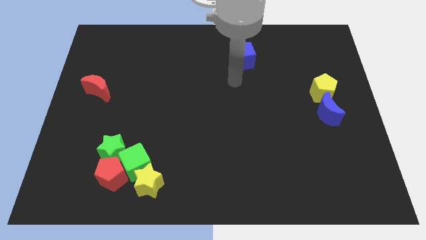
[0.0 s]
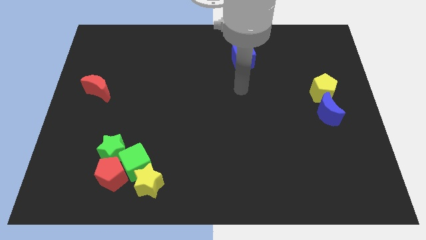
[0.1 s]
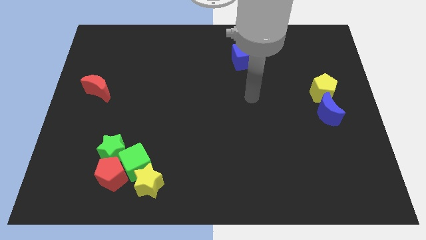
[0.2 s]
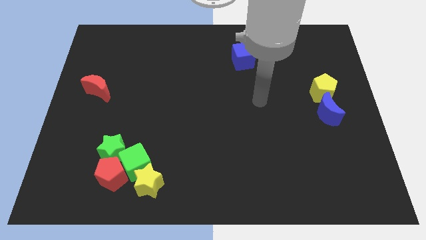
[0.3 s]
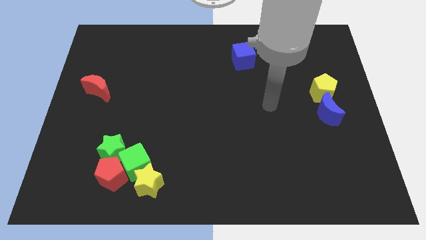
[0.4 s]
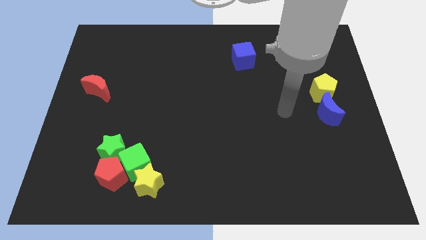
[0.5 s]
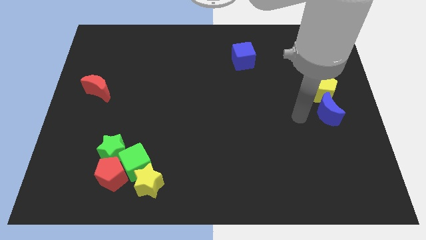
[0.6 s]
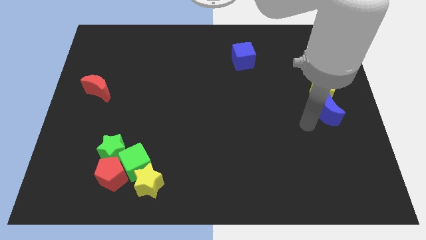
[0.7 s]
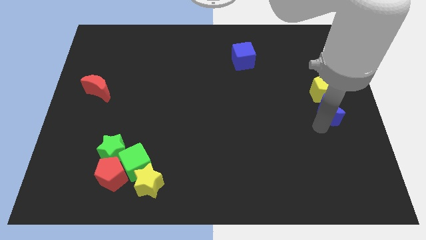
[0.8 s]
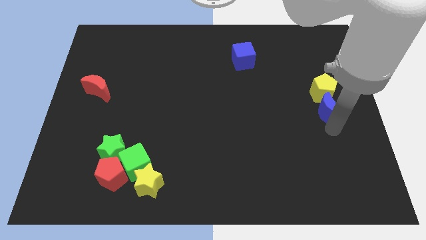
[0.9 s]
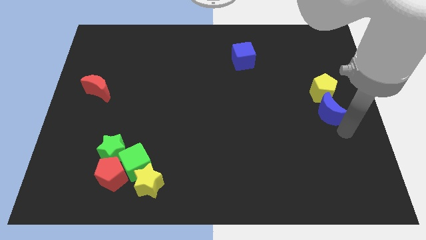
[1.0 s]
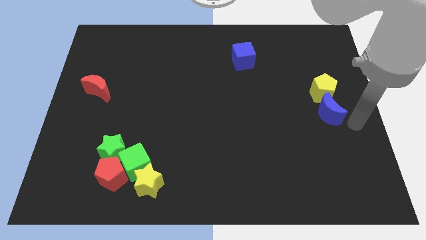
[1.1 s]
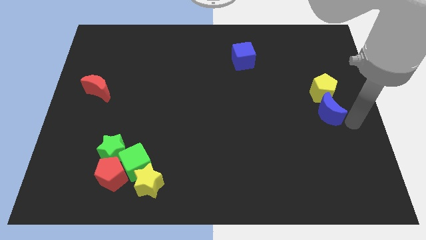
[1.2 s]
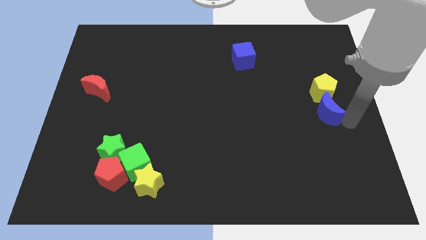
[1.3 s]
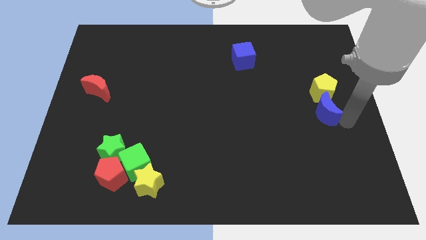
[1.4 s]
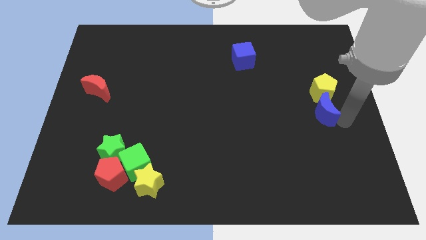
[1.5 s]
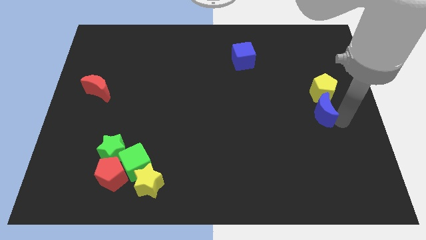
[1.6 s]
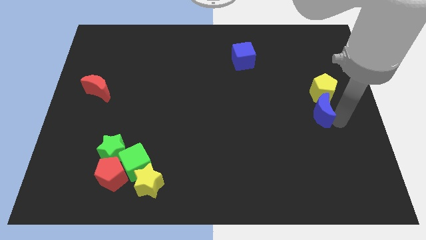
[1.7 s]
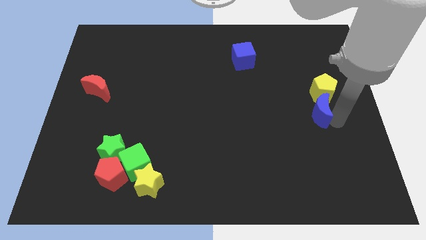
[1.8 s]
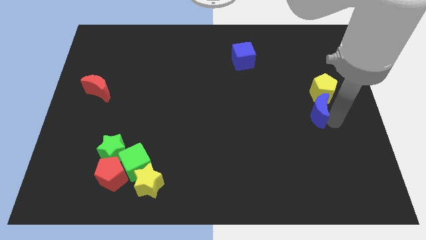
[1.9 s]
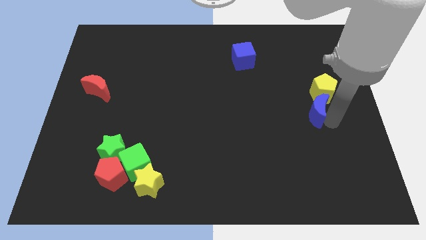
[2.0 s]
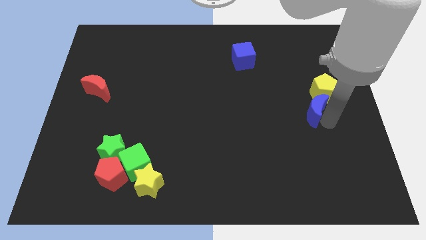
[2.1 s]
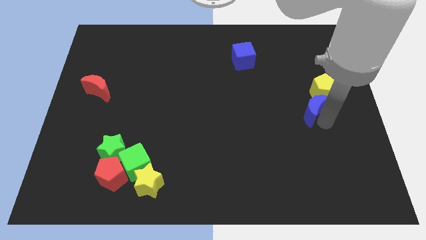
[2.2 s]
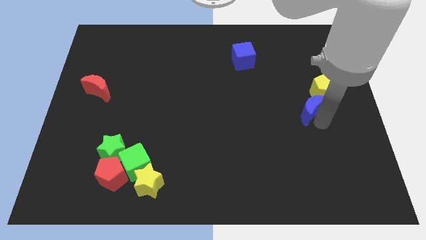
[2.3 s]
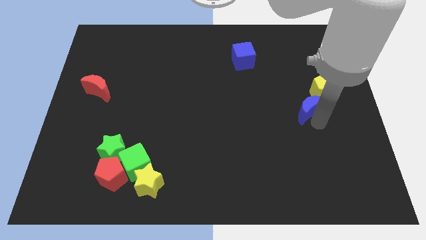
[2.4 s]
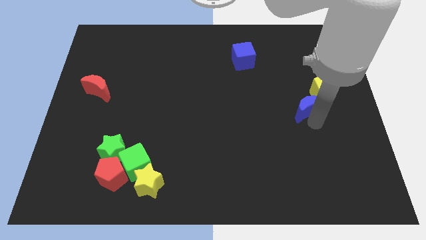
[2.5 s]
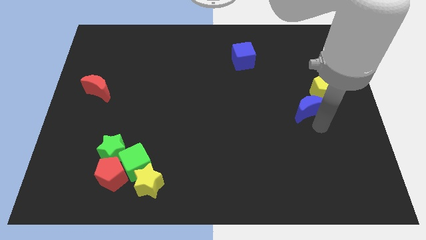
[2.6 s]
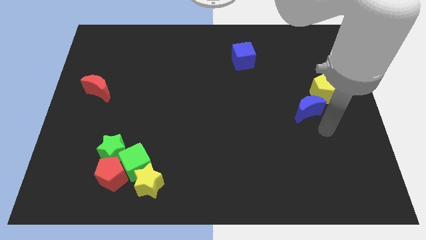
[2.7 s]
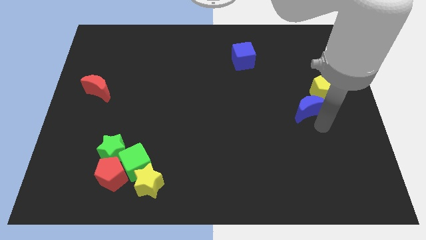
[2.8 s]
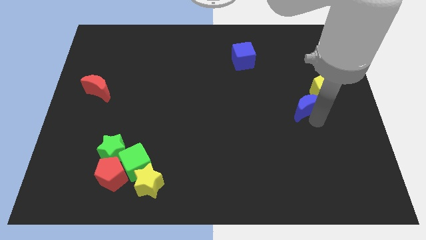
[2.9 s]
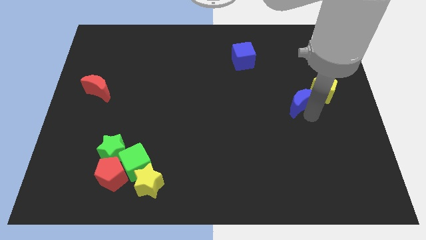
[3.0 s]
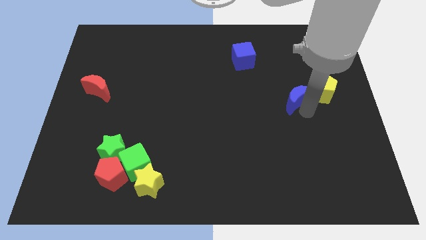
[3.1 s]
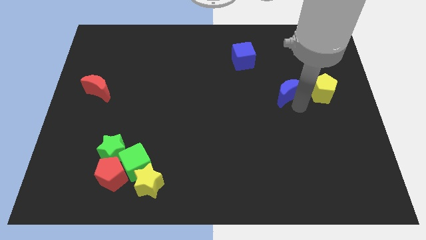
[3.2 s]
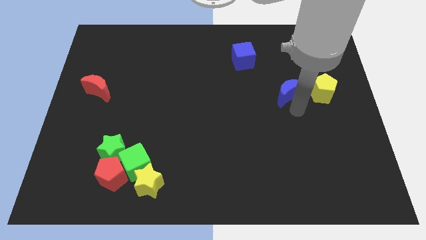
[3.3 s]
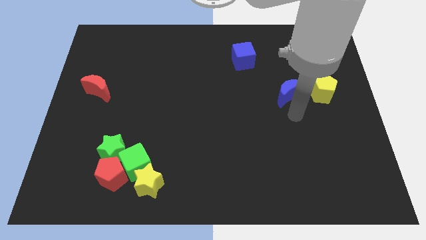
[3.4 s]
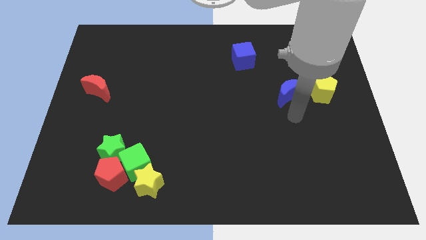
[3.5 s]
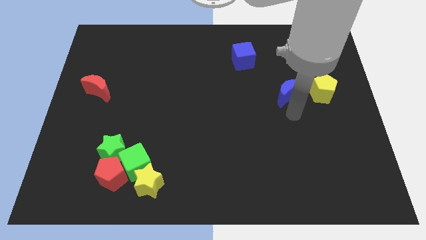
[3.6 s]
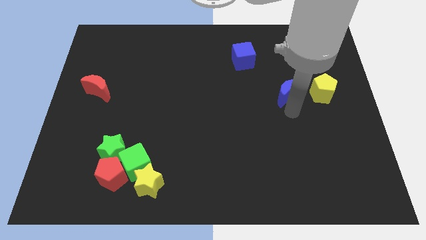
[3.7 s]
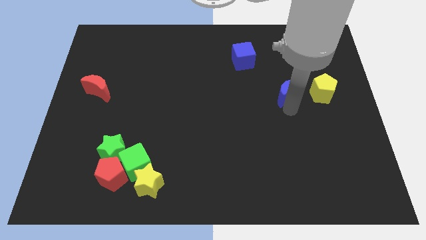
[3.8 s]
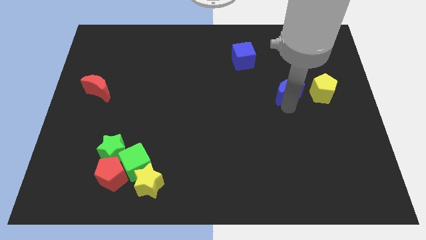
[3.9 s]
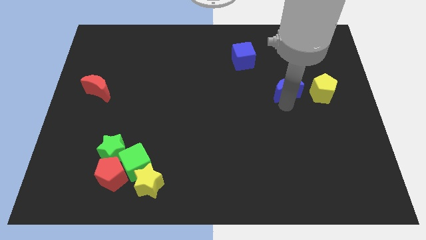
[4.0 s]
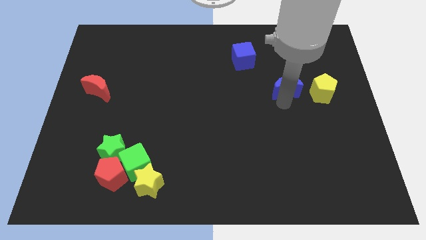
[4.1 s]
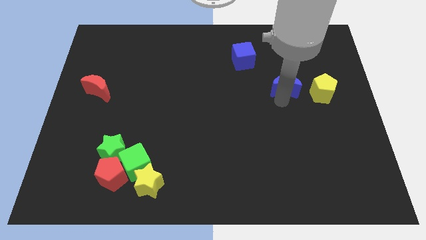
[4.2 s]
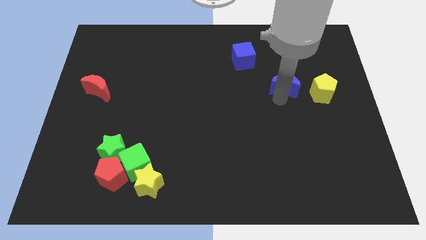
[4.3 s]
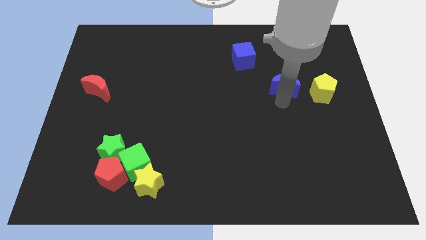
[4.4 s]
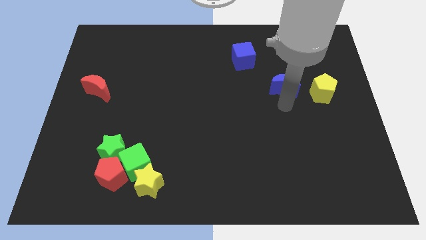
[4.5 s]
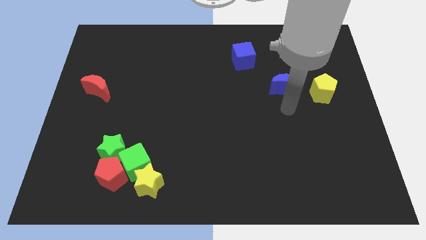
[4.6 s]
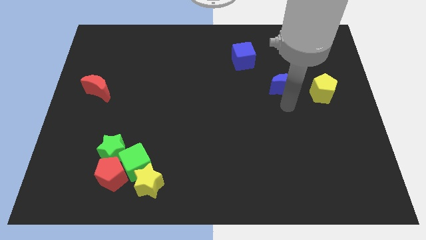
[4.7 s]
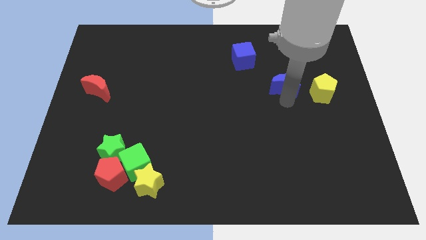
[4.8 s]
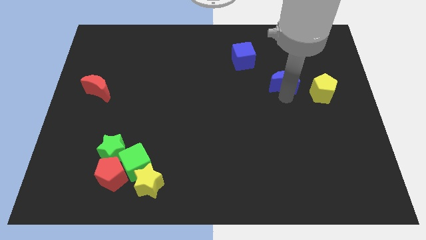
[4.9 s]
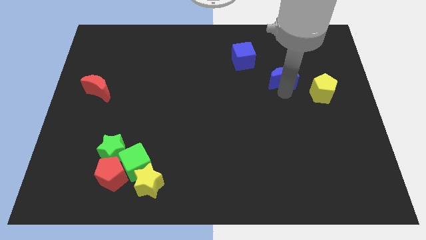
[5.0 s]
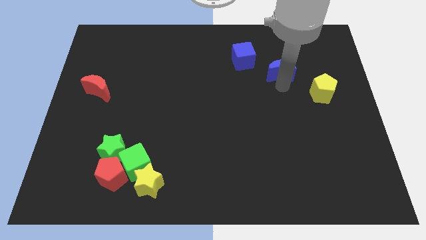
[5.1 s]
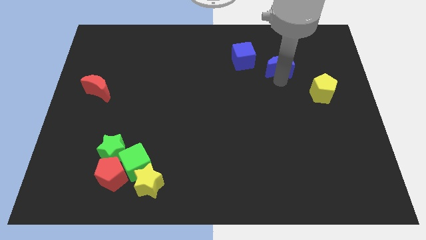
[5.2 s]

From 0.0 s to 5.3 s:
push the blue moon just right of the blue cube

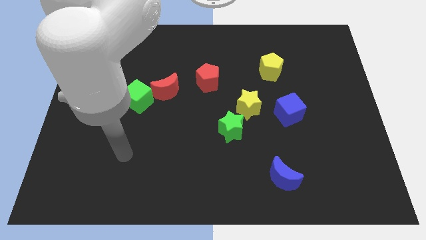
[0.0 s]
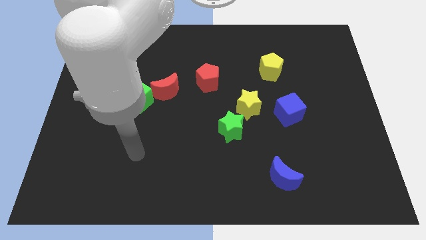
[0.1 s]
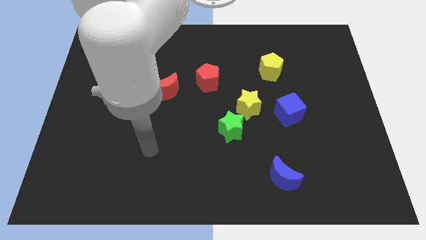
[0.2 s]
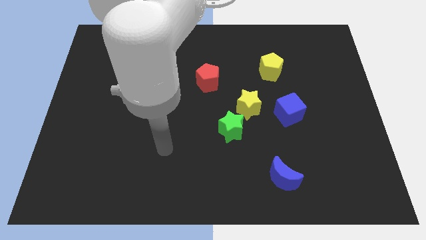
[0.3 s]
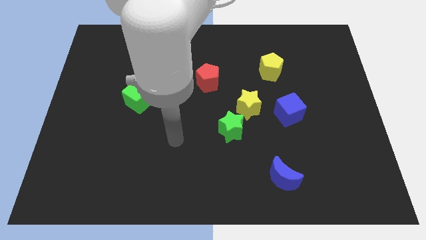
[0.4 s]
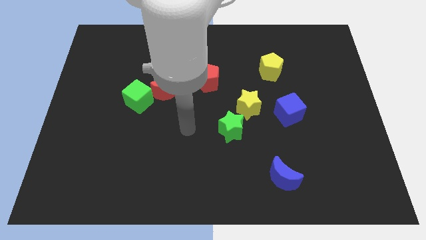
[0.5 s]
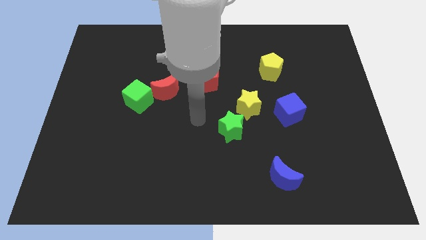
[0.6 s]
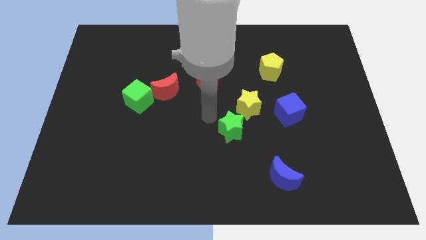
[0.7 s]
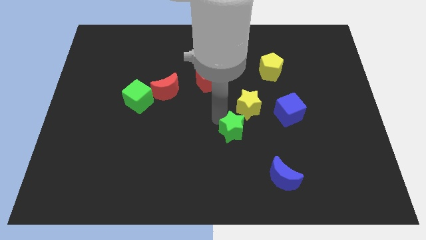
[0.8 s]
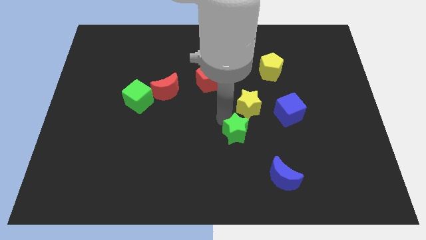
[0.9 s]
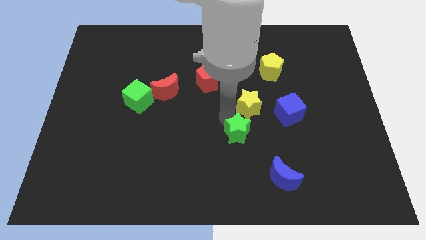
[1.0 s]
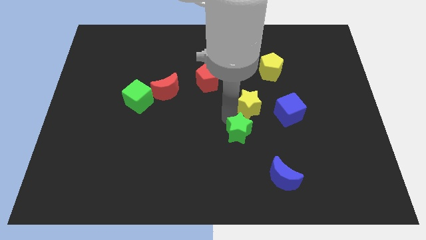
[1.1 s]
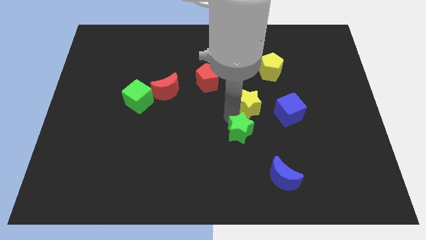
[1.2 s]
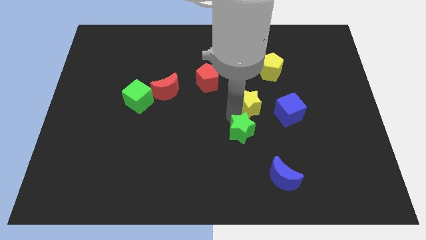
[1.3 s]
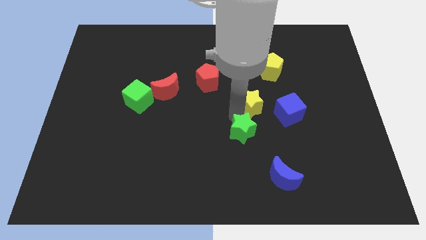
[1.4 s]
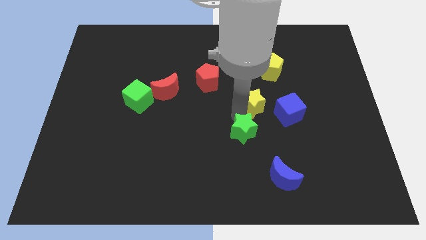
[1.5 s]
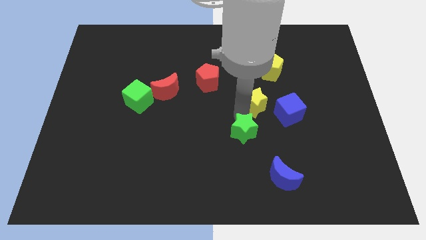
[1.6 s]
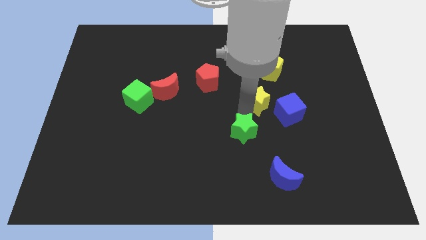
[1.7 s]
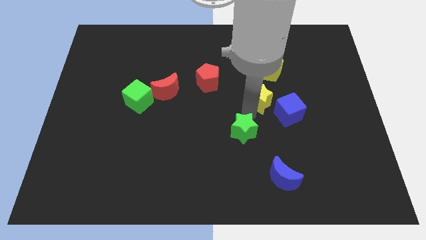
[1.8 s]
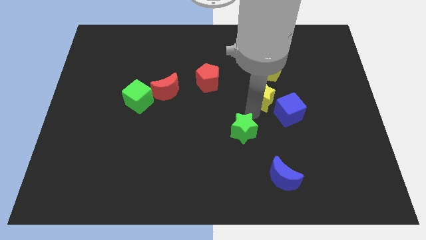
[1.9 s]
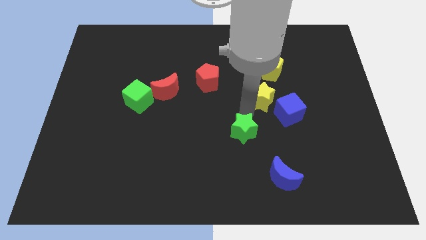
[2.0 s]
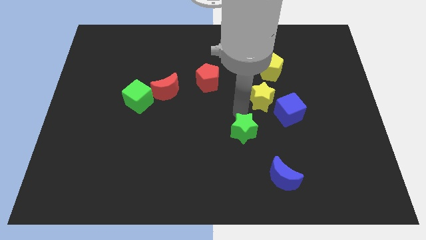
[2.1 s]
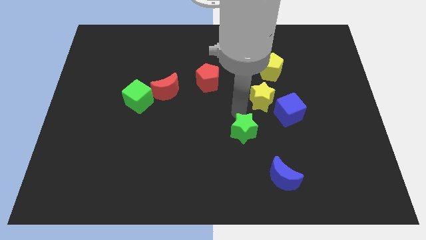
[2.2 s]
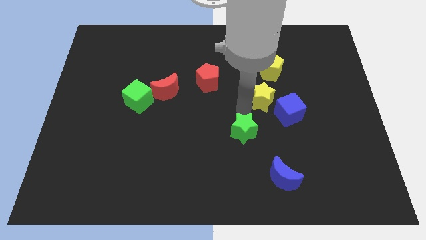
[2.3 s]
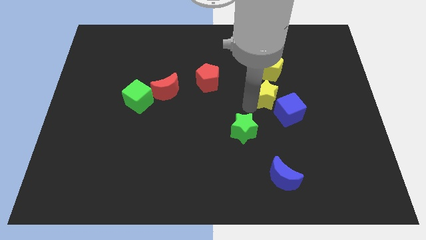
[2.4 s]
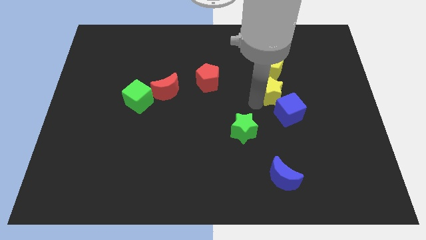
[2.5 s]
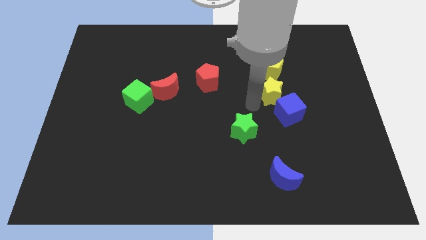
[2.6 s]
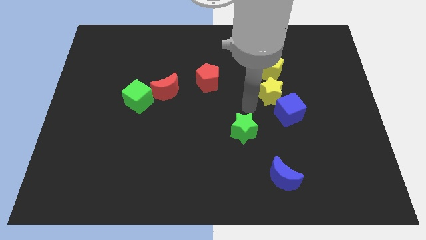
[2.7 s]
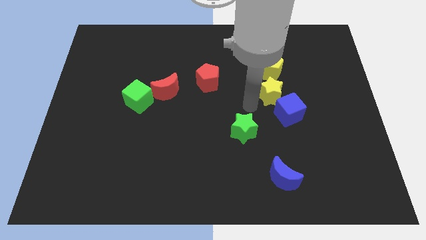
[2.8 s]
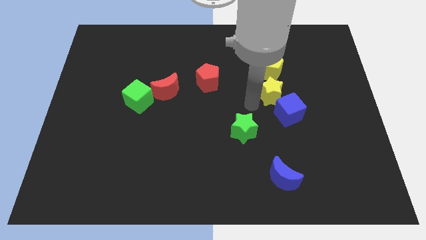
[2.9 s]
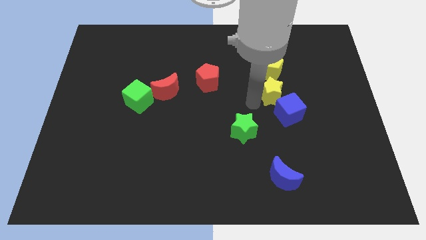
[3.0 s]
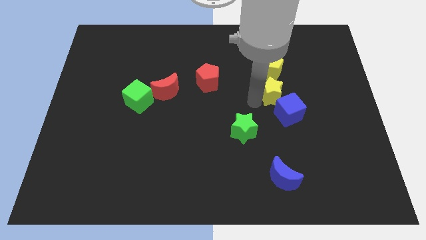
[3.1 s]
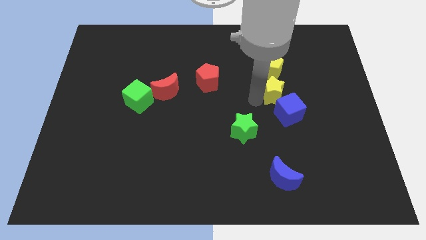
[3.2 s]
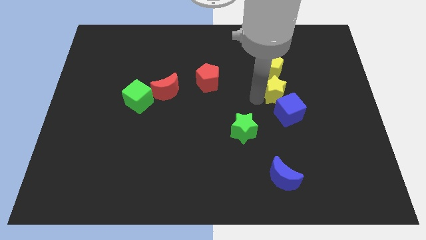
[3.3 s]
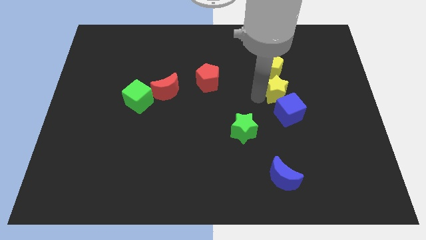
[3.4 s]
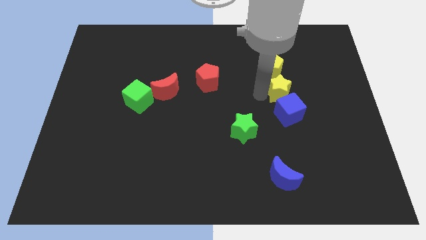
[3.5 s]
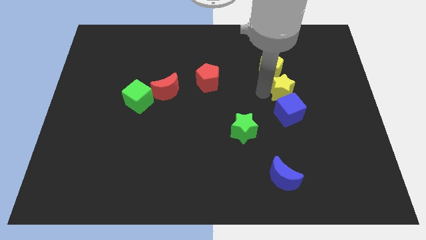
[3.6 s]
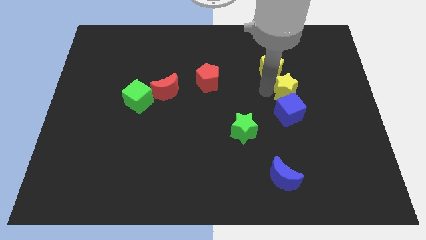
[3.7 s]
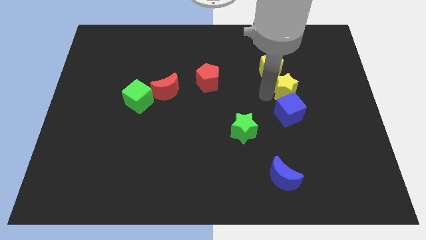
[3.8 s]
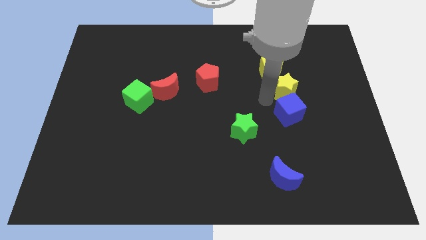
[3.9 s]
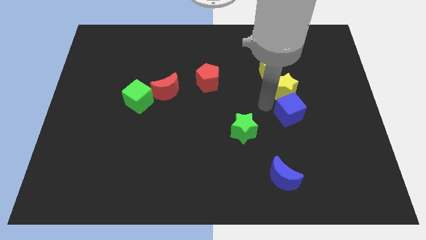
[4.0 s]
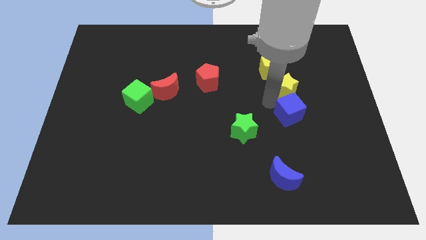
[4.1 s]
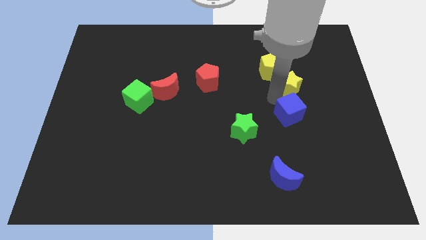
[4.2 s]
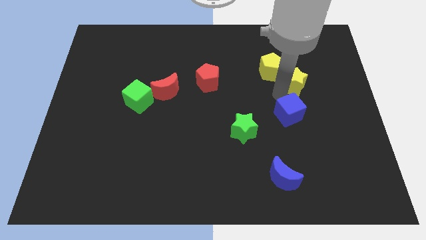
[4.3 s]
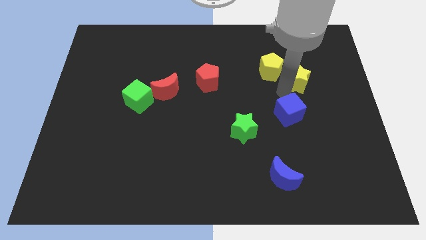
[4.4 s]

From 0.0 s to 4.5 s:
slide the yellow star right of the yellow pentagon
